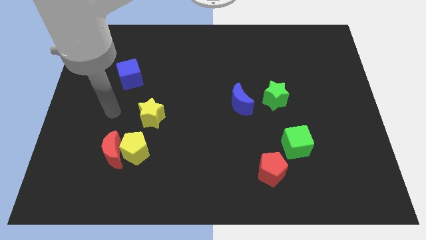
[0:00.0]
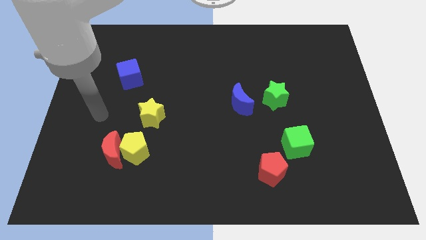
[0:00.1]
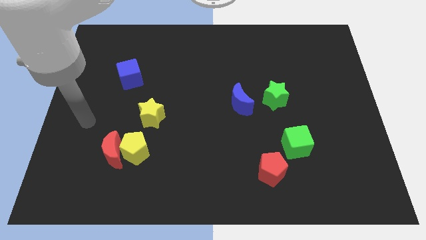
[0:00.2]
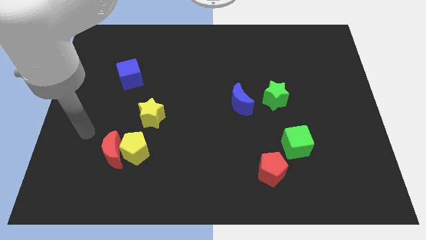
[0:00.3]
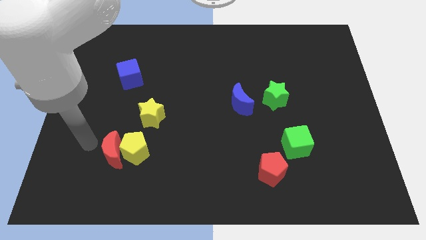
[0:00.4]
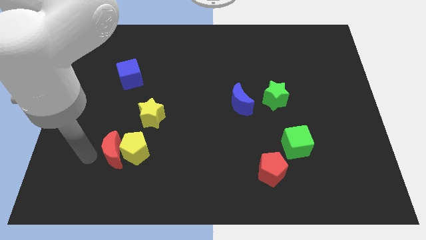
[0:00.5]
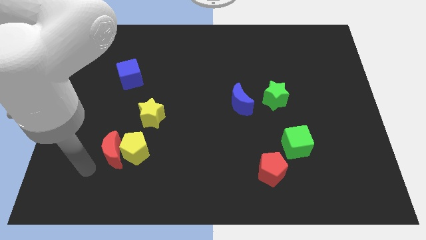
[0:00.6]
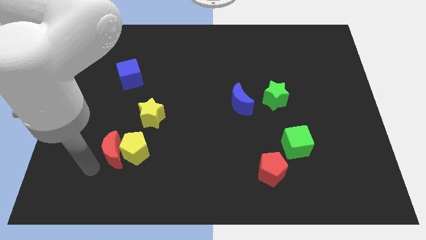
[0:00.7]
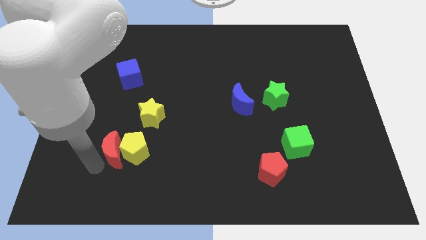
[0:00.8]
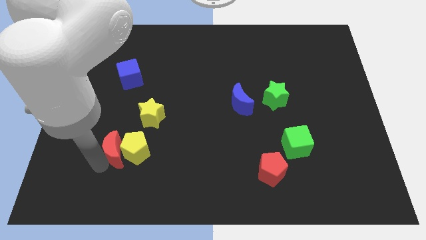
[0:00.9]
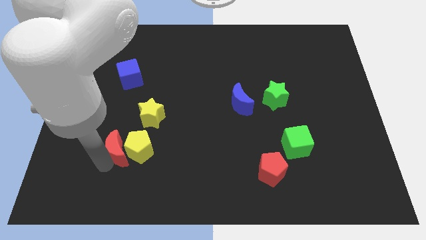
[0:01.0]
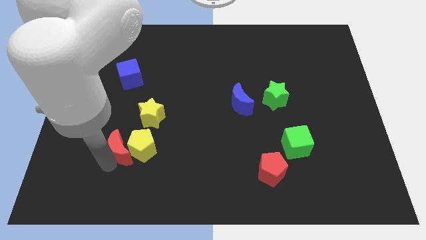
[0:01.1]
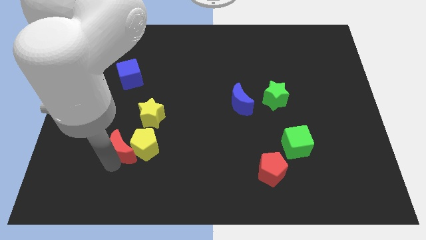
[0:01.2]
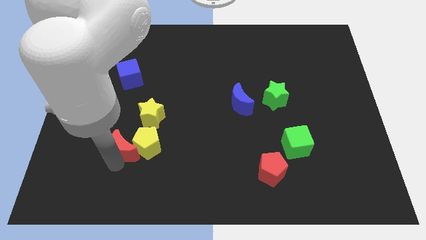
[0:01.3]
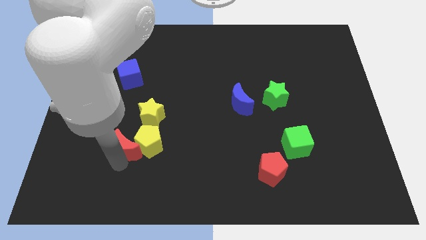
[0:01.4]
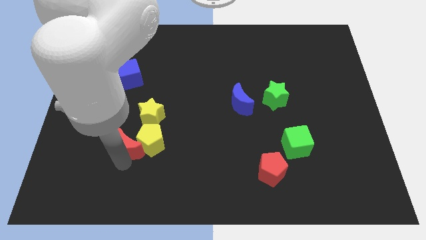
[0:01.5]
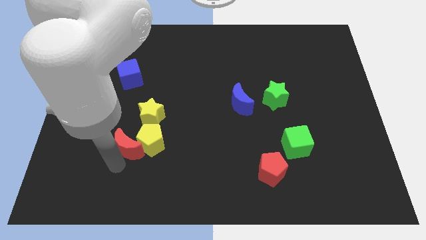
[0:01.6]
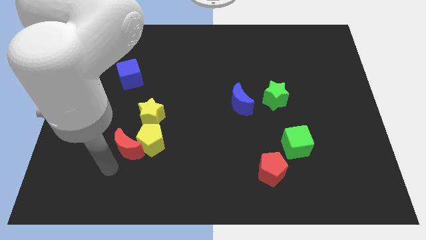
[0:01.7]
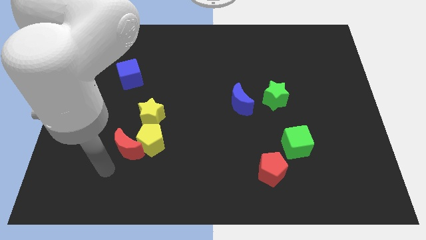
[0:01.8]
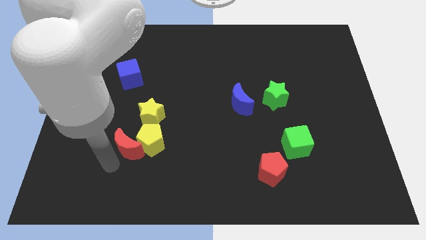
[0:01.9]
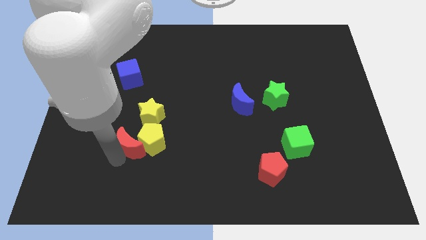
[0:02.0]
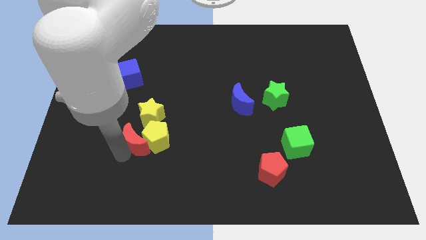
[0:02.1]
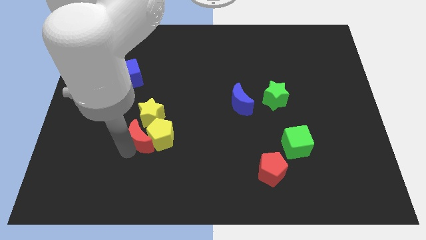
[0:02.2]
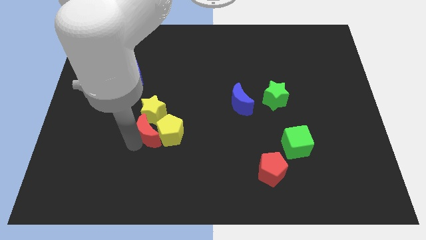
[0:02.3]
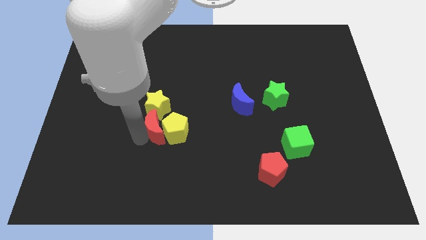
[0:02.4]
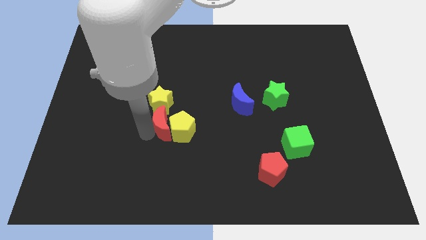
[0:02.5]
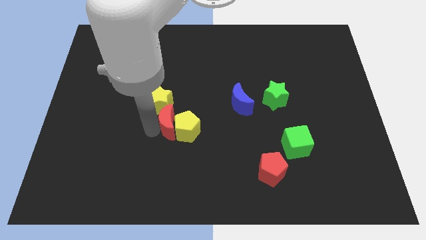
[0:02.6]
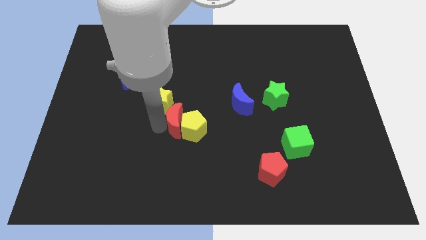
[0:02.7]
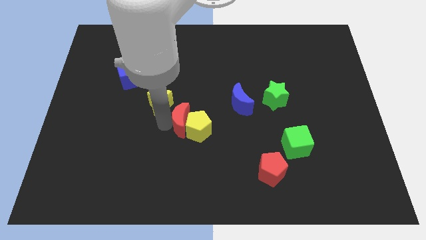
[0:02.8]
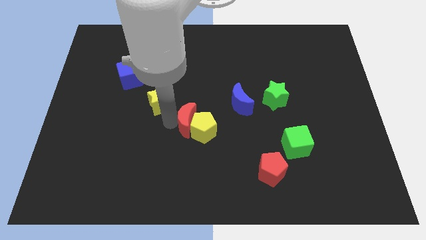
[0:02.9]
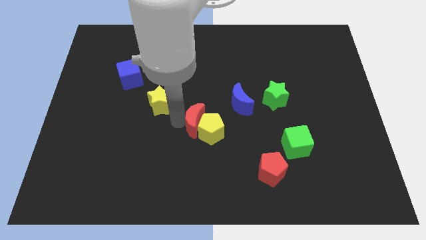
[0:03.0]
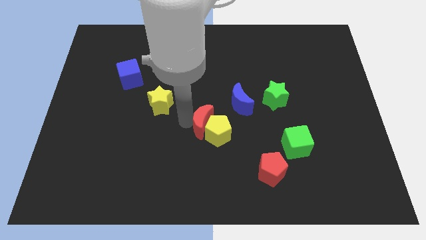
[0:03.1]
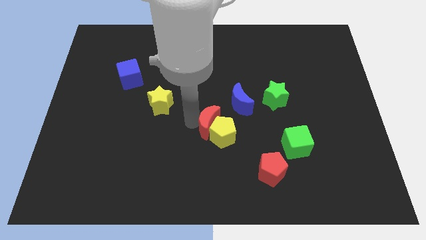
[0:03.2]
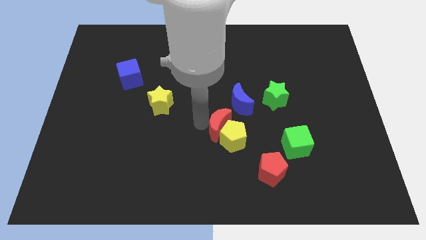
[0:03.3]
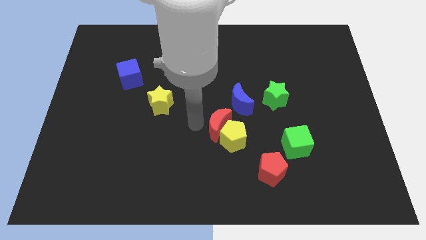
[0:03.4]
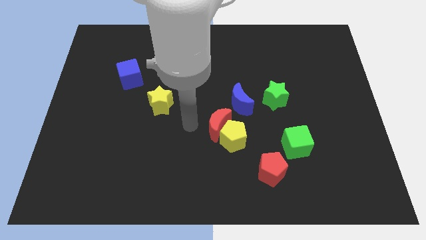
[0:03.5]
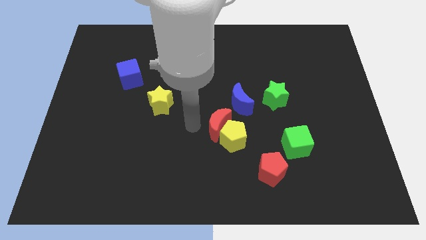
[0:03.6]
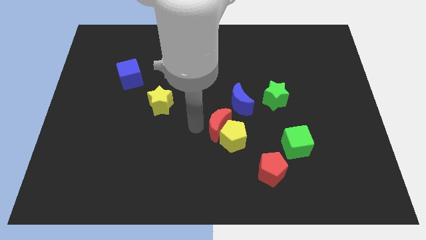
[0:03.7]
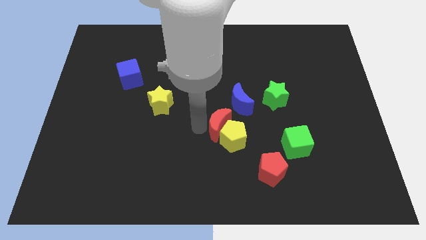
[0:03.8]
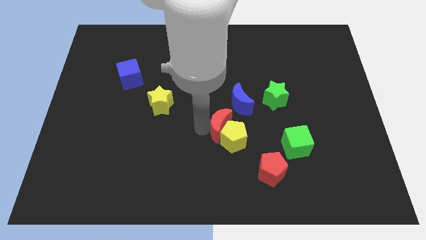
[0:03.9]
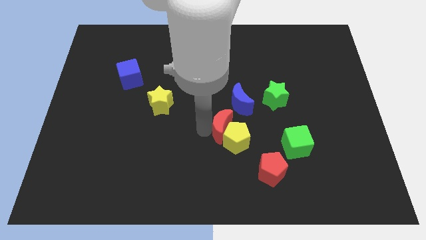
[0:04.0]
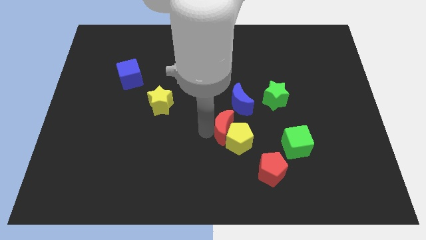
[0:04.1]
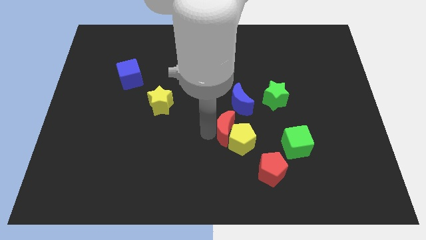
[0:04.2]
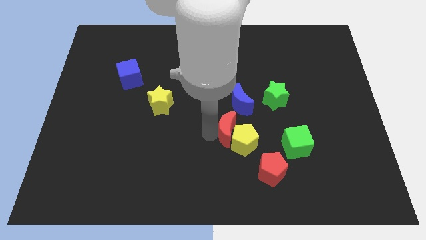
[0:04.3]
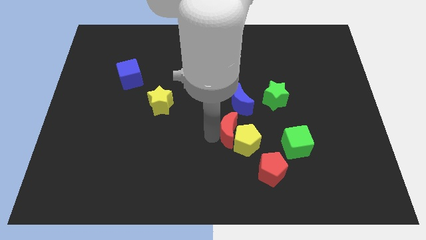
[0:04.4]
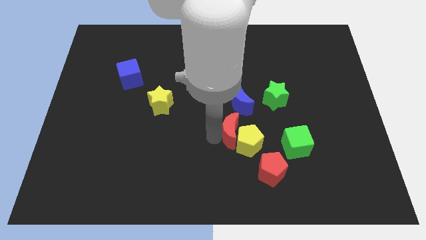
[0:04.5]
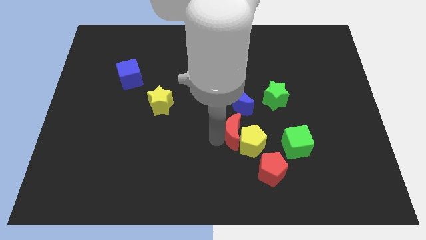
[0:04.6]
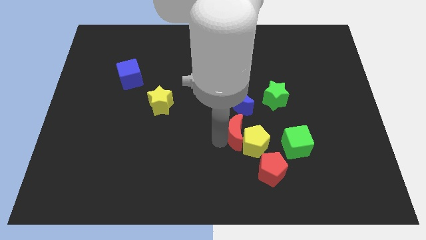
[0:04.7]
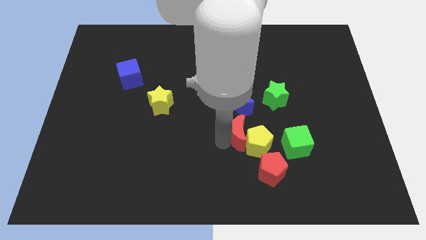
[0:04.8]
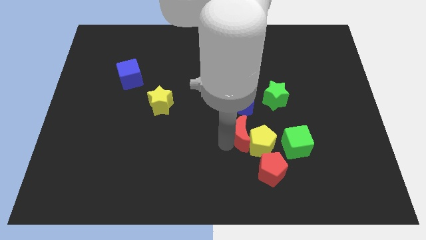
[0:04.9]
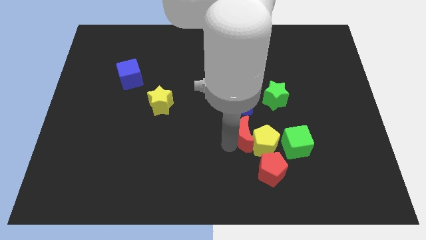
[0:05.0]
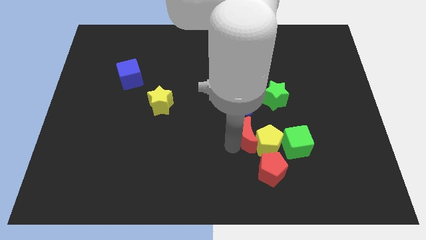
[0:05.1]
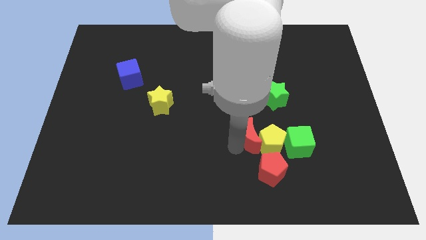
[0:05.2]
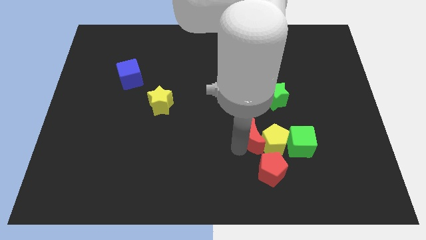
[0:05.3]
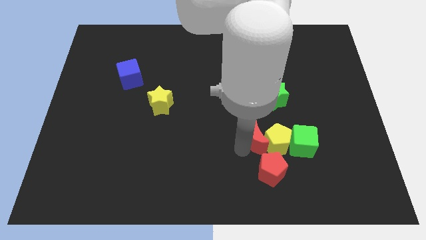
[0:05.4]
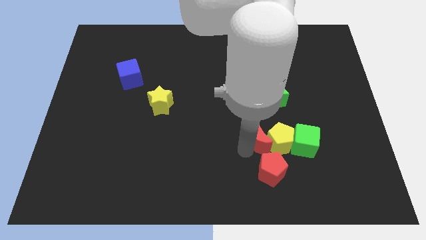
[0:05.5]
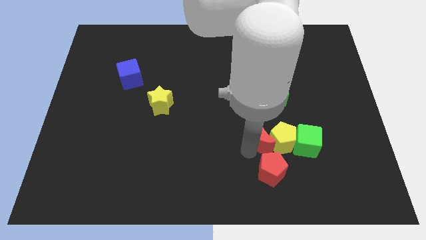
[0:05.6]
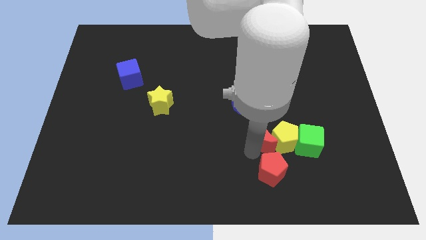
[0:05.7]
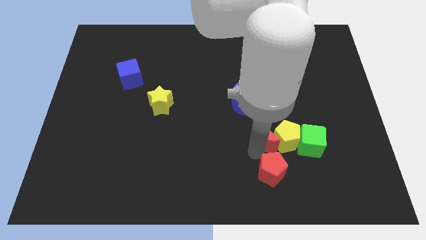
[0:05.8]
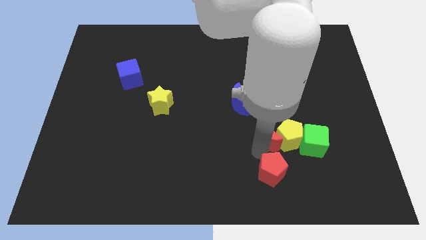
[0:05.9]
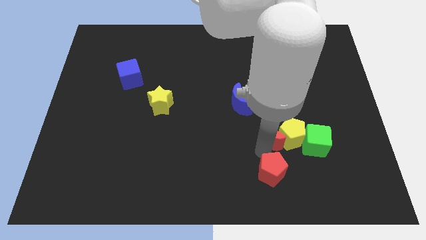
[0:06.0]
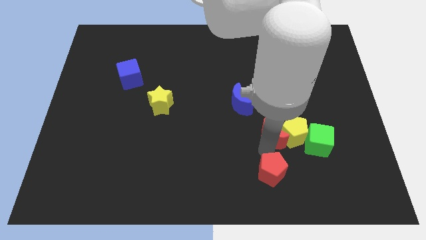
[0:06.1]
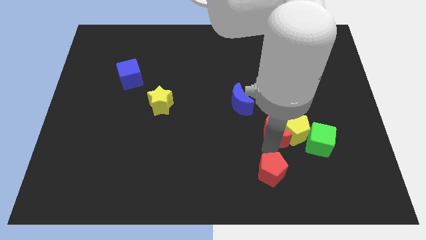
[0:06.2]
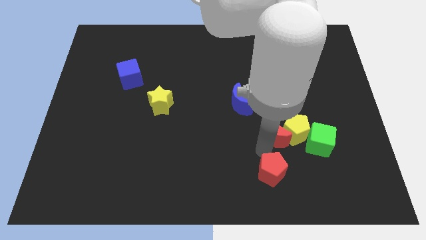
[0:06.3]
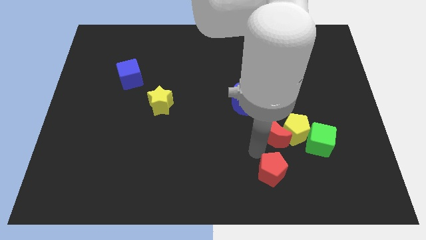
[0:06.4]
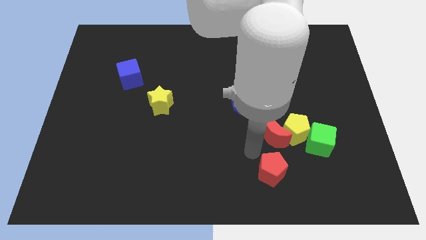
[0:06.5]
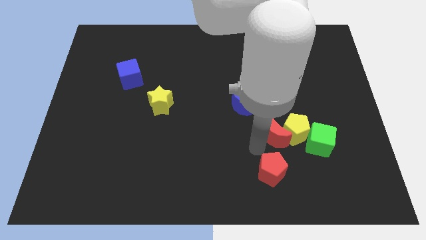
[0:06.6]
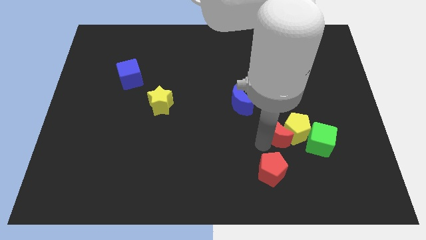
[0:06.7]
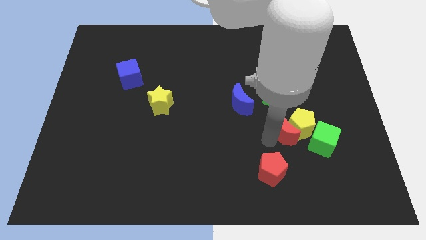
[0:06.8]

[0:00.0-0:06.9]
push the red moon to the top left side of the green cube

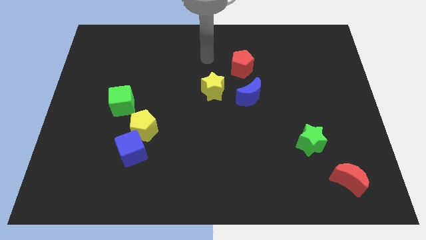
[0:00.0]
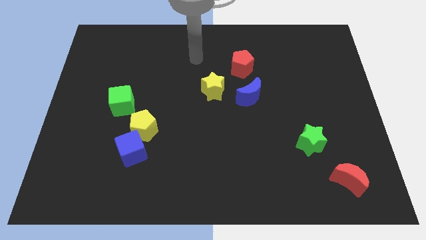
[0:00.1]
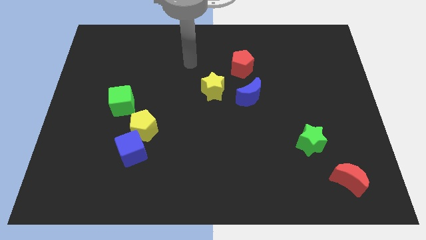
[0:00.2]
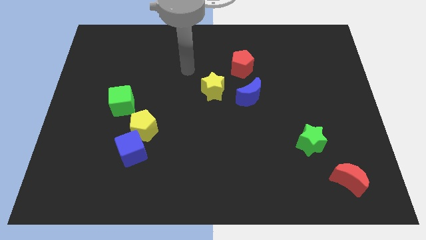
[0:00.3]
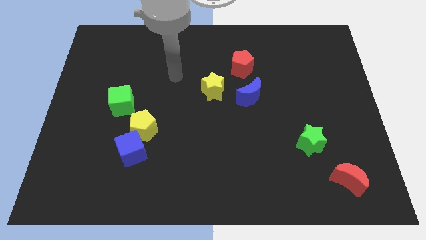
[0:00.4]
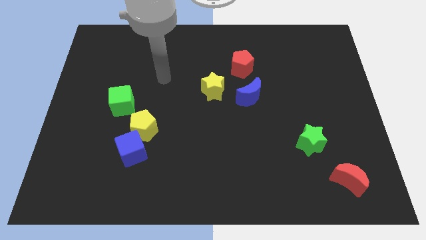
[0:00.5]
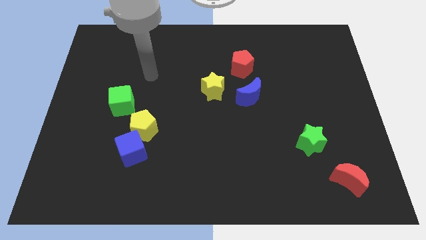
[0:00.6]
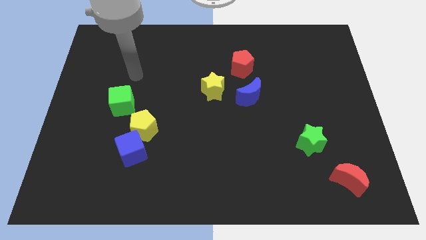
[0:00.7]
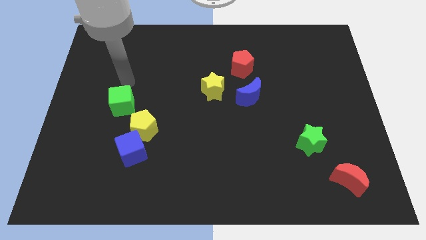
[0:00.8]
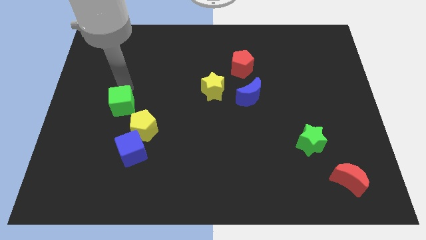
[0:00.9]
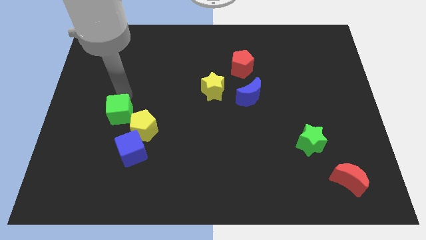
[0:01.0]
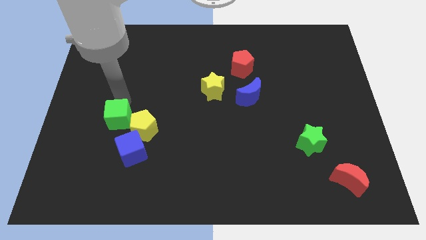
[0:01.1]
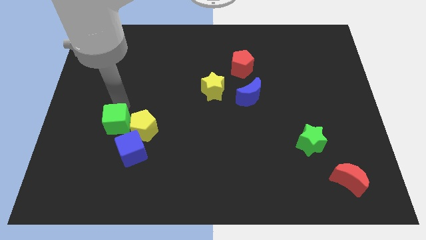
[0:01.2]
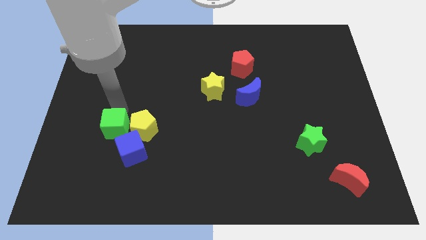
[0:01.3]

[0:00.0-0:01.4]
move the green cube to the bottom left of the yellow pentagon
